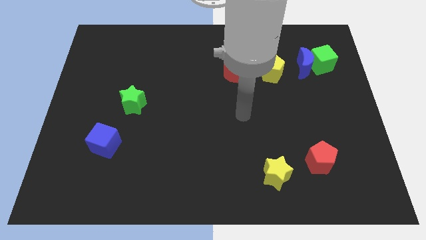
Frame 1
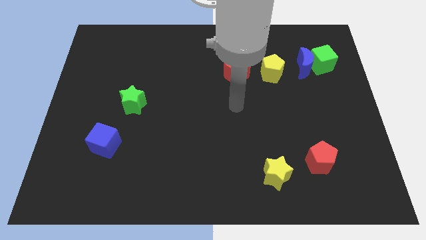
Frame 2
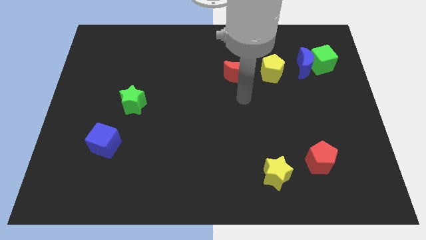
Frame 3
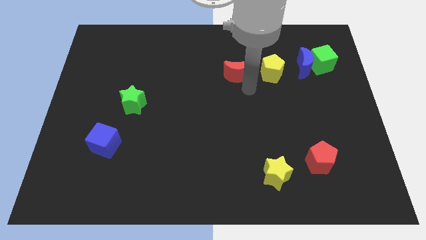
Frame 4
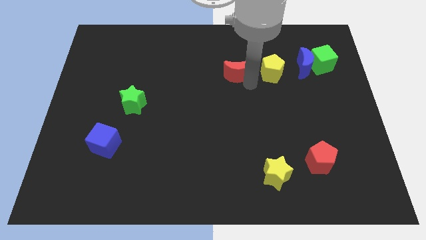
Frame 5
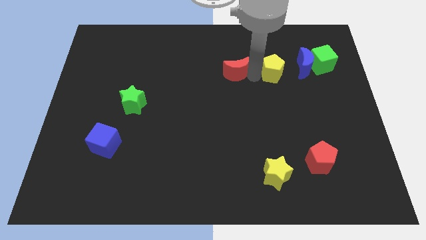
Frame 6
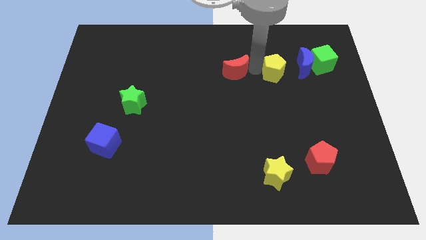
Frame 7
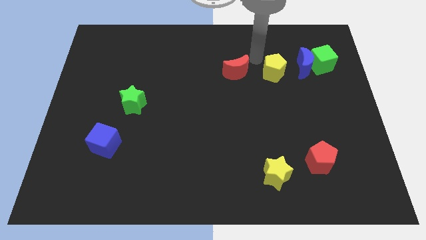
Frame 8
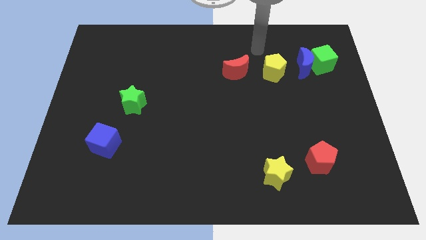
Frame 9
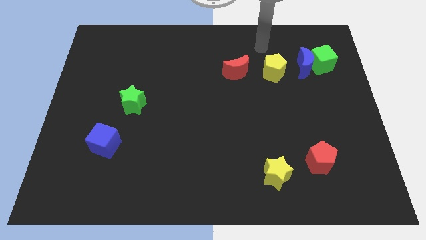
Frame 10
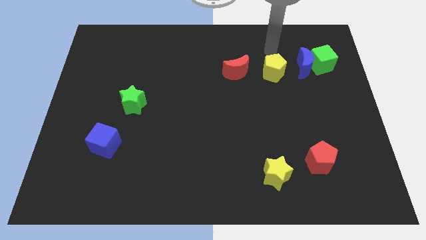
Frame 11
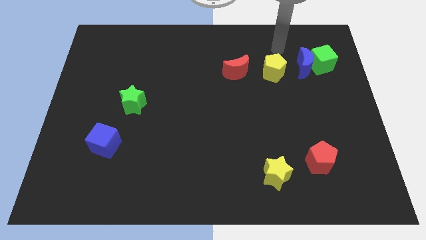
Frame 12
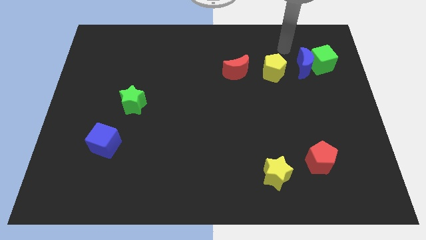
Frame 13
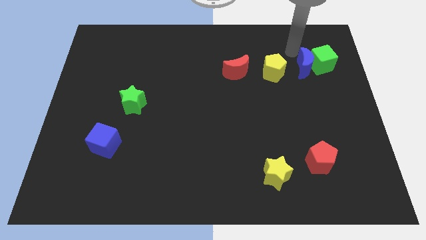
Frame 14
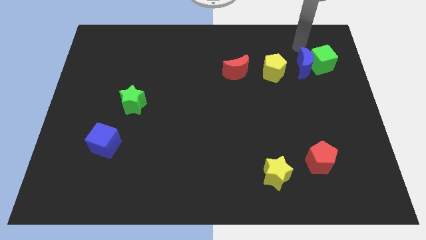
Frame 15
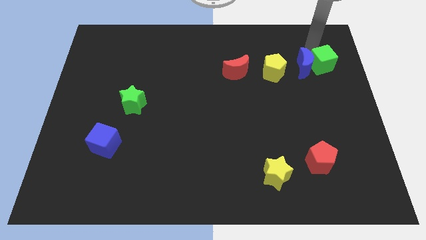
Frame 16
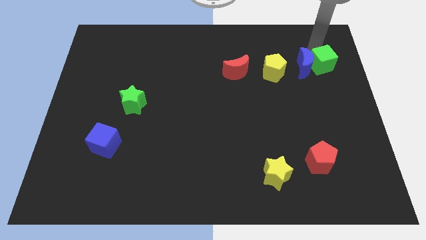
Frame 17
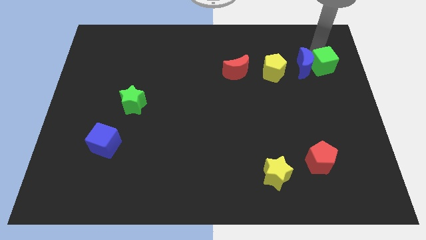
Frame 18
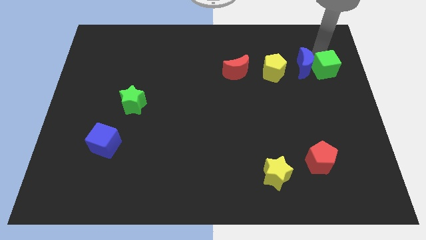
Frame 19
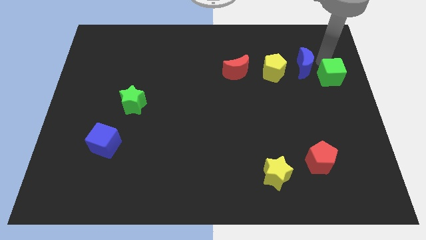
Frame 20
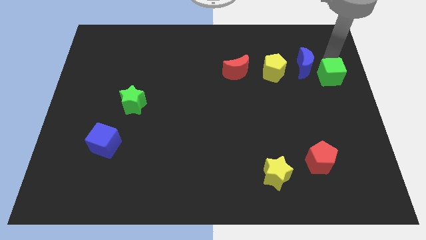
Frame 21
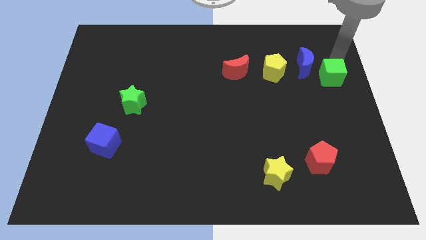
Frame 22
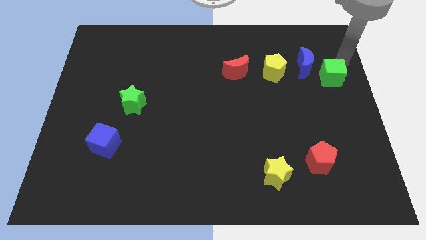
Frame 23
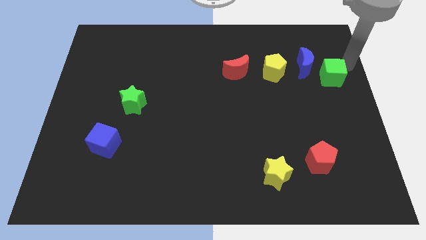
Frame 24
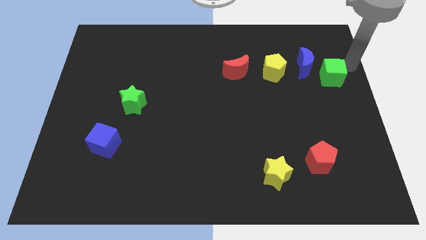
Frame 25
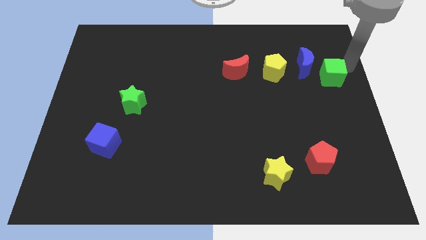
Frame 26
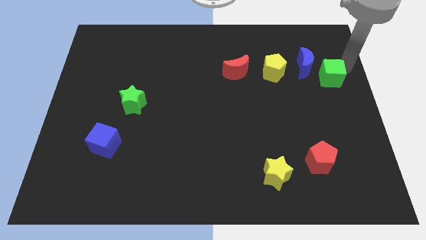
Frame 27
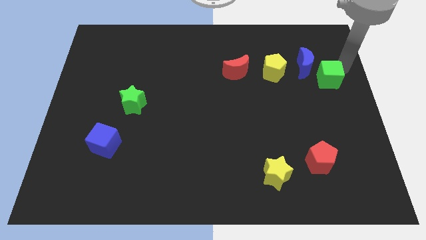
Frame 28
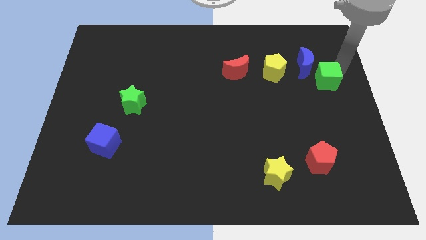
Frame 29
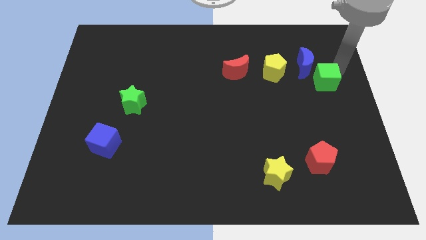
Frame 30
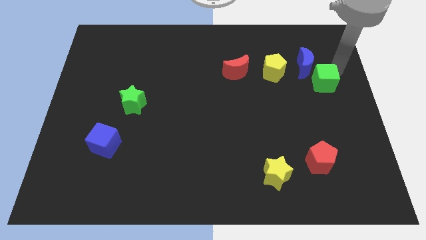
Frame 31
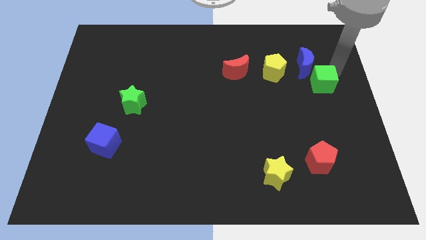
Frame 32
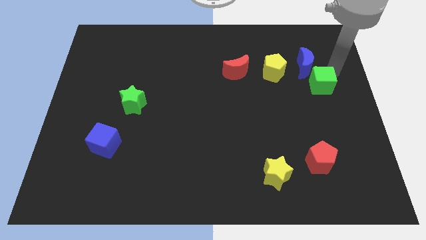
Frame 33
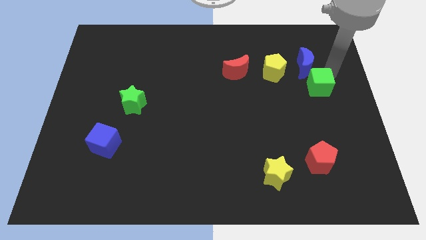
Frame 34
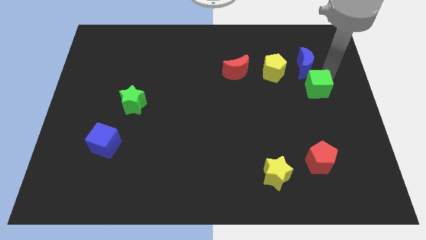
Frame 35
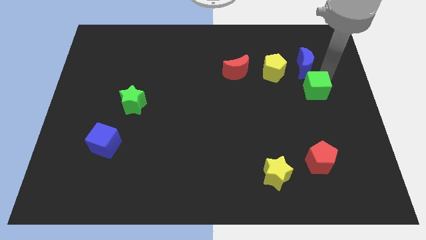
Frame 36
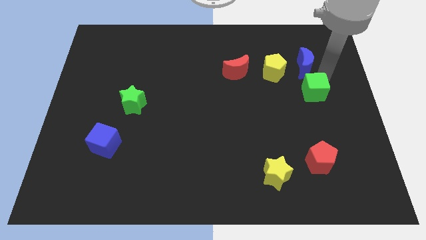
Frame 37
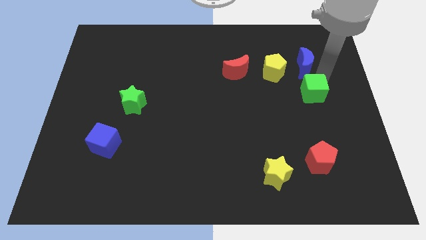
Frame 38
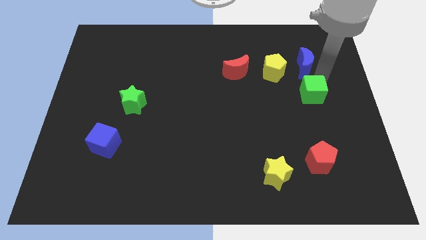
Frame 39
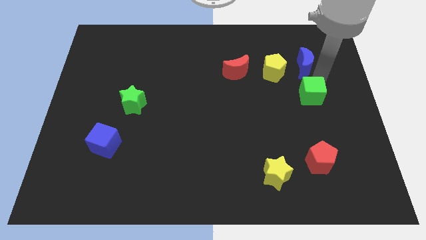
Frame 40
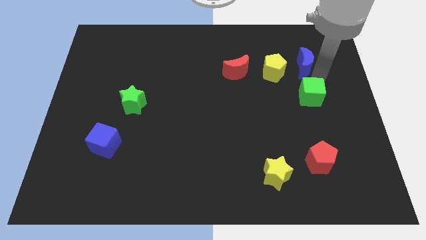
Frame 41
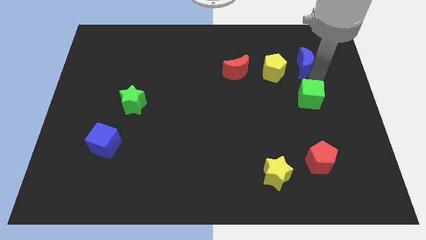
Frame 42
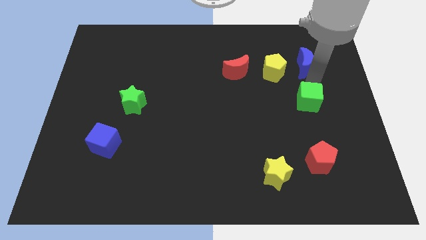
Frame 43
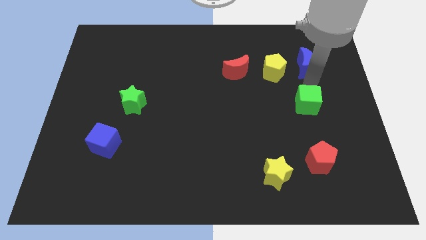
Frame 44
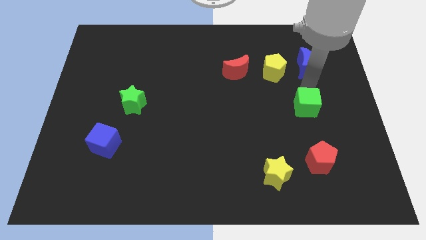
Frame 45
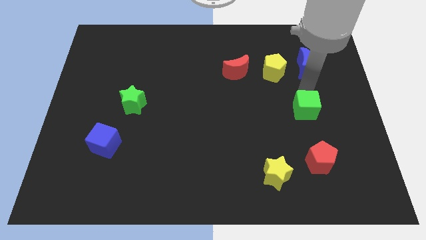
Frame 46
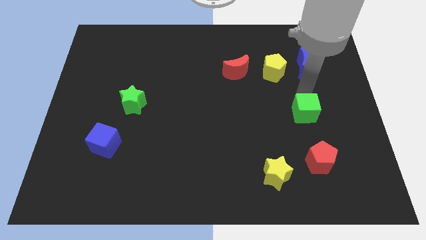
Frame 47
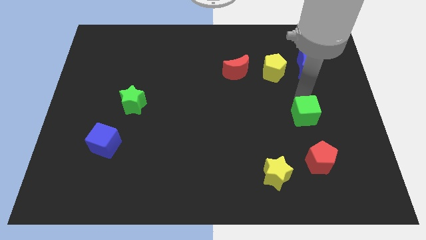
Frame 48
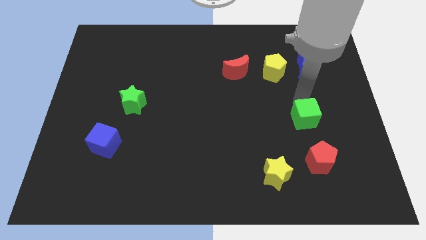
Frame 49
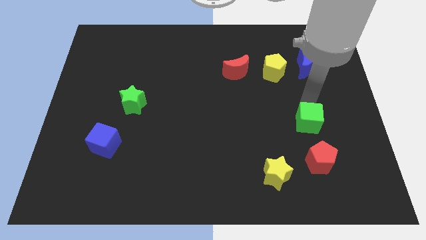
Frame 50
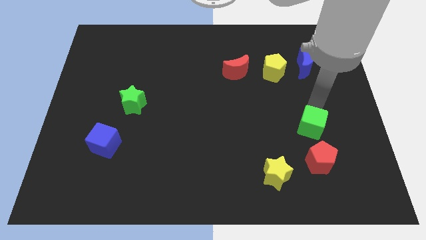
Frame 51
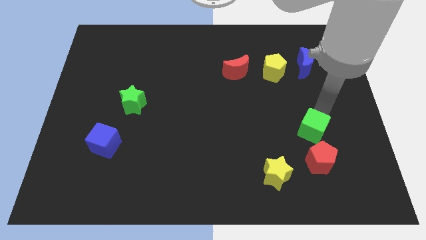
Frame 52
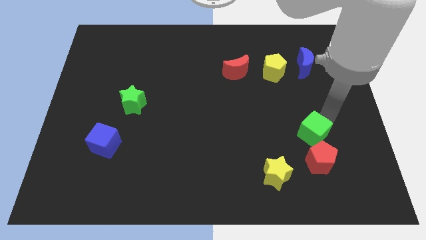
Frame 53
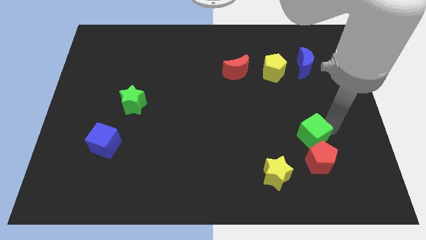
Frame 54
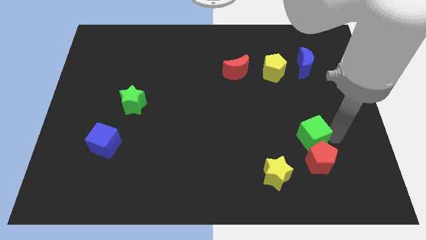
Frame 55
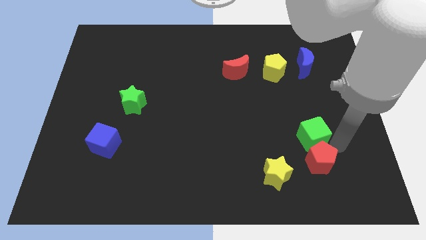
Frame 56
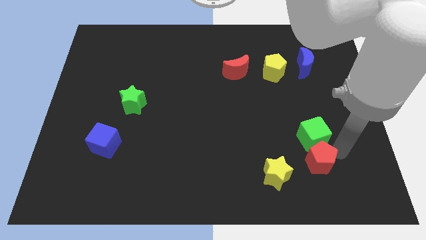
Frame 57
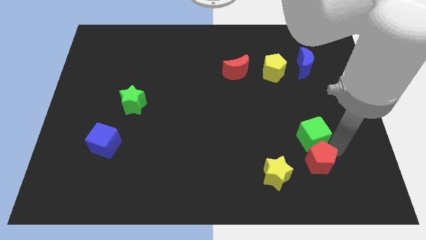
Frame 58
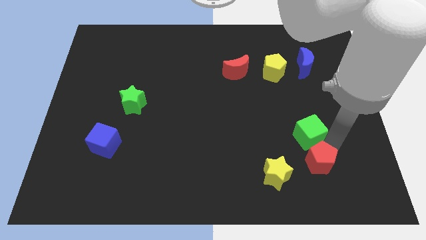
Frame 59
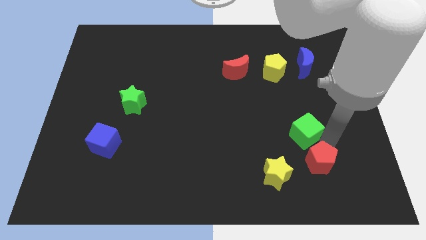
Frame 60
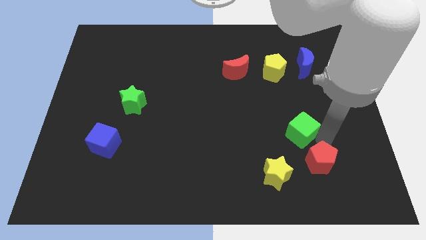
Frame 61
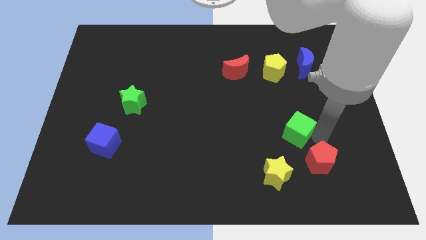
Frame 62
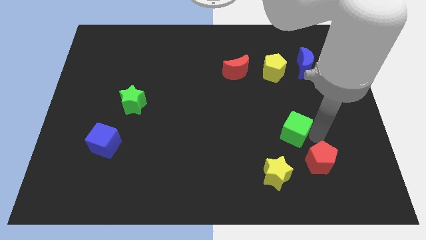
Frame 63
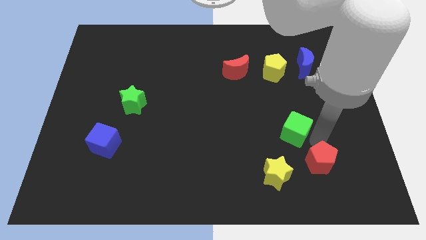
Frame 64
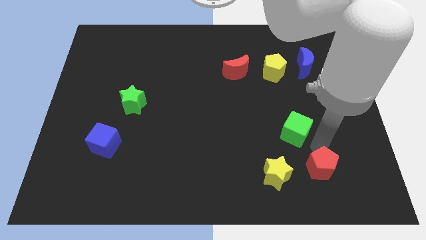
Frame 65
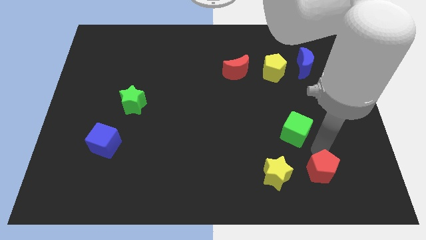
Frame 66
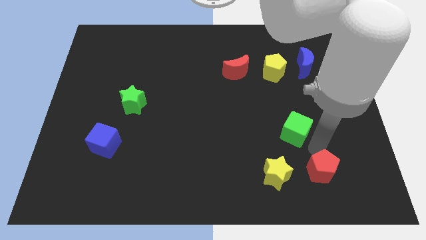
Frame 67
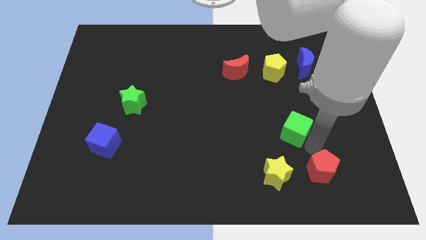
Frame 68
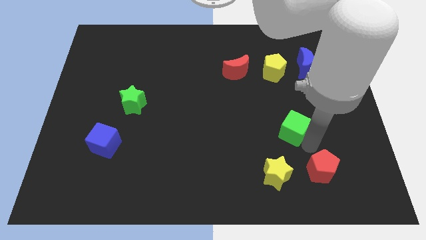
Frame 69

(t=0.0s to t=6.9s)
slide the green cube downwards and then to the left

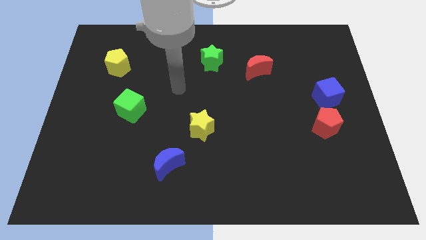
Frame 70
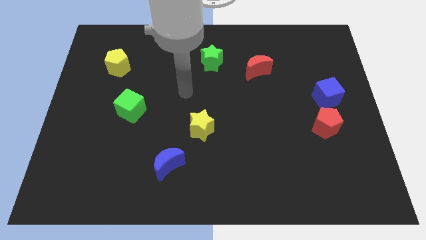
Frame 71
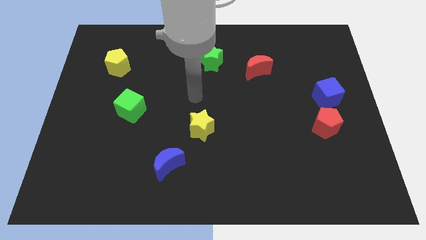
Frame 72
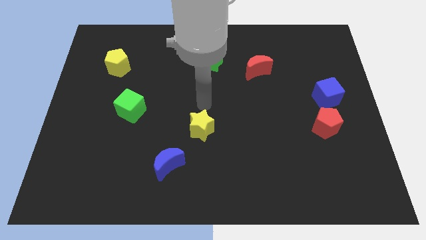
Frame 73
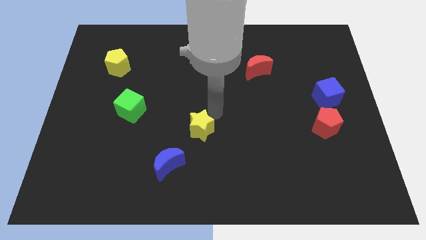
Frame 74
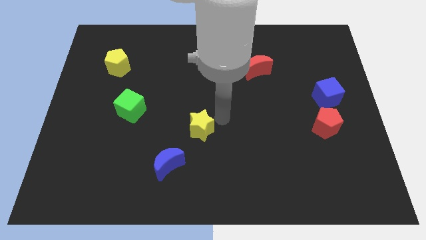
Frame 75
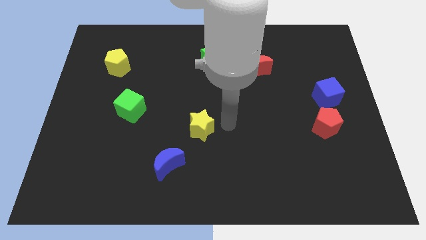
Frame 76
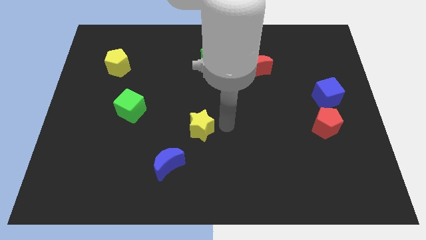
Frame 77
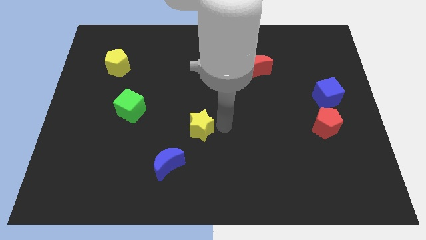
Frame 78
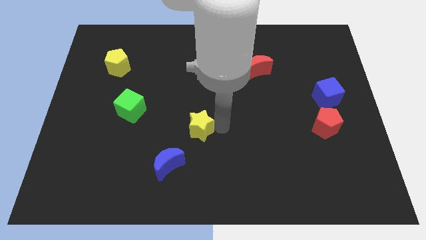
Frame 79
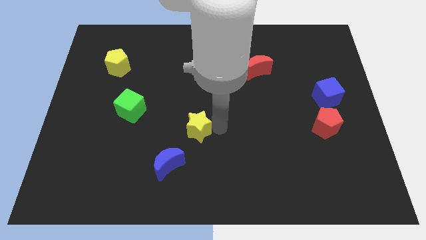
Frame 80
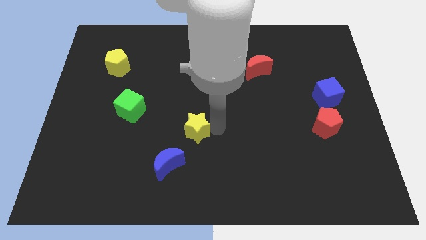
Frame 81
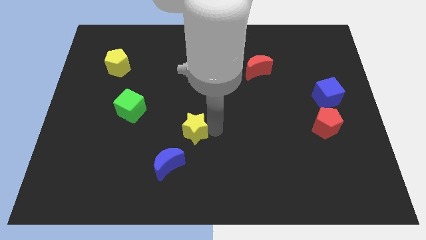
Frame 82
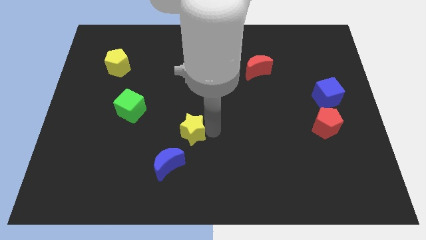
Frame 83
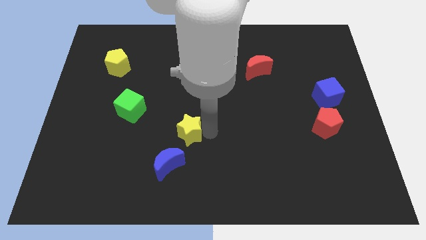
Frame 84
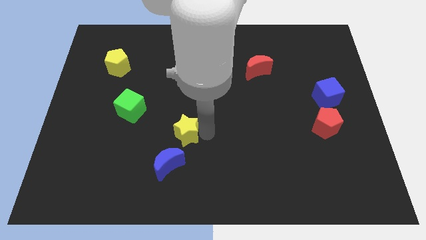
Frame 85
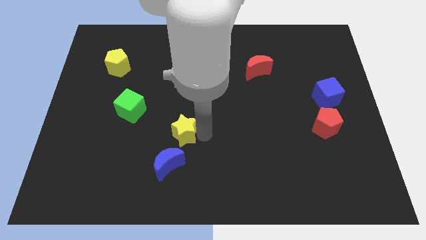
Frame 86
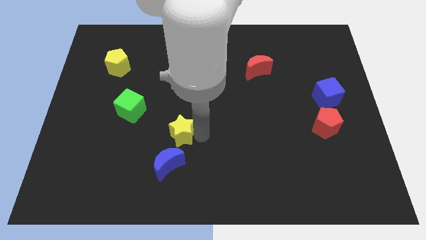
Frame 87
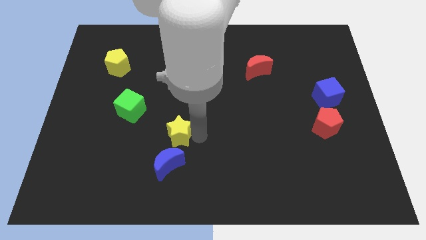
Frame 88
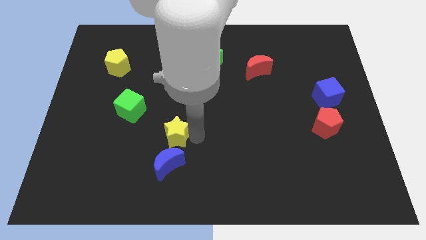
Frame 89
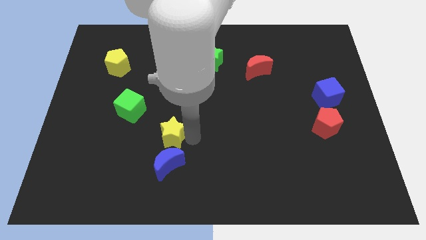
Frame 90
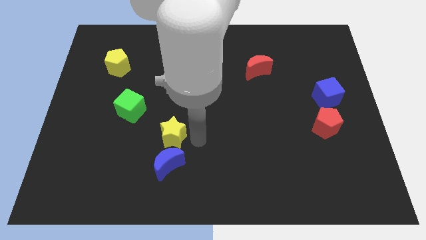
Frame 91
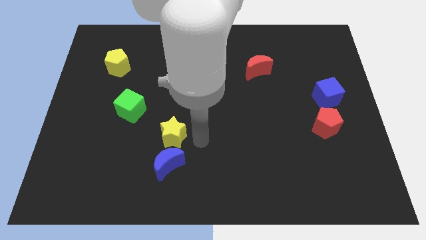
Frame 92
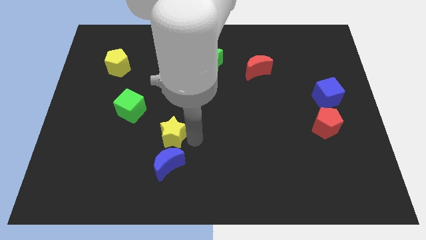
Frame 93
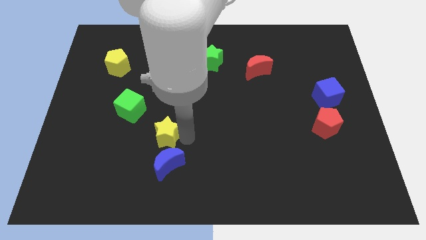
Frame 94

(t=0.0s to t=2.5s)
slightly slide the yellow star left
